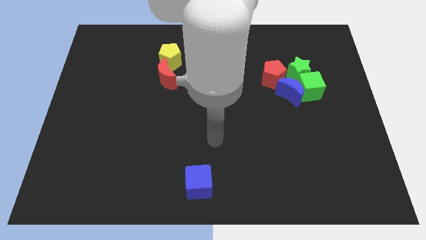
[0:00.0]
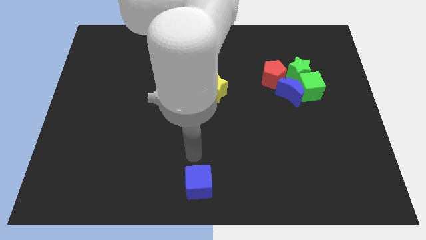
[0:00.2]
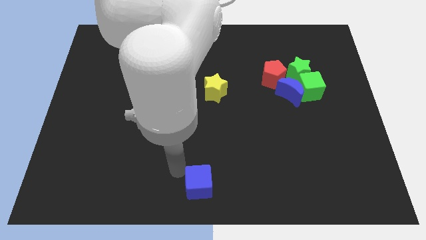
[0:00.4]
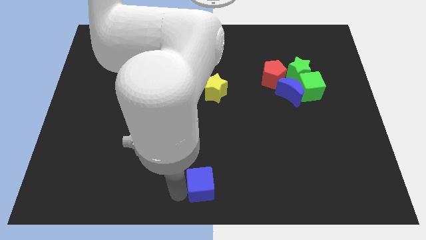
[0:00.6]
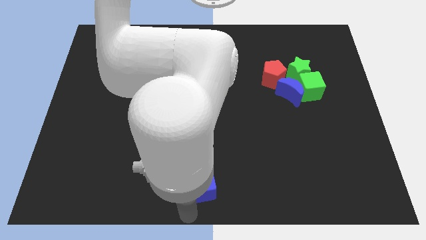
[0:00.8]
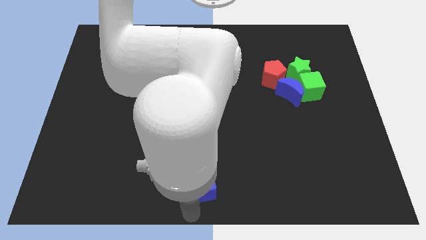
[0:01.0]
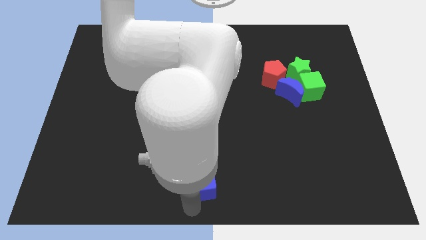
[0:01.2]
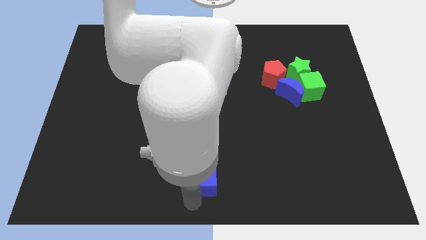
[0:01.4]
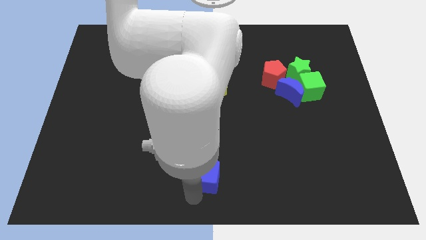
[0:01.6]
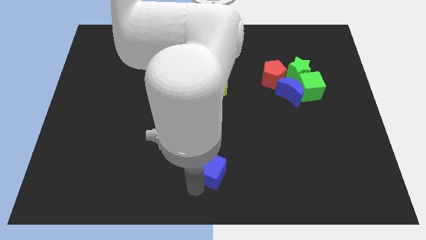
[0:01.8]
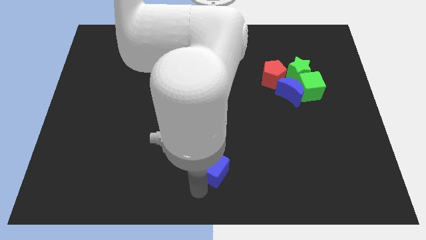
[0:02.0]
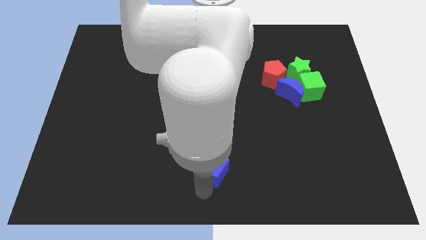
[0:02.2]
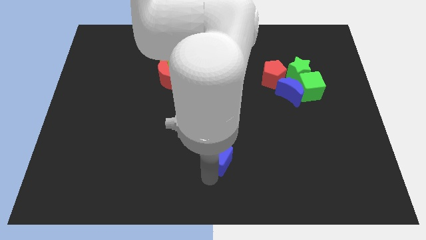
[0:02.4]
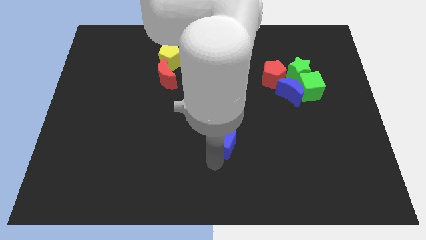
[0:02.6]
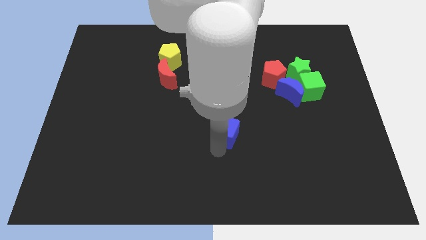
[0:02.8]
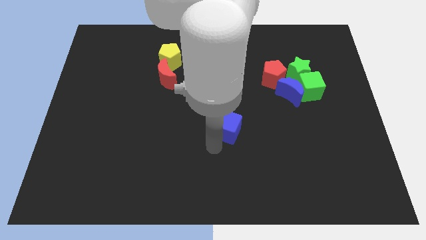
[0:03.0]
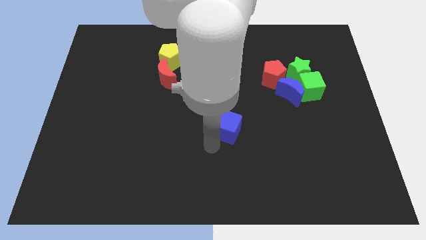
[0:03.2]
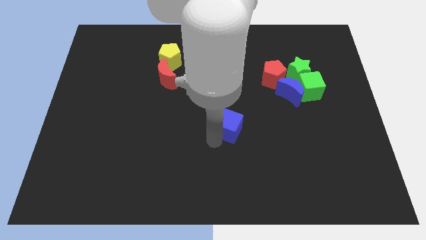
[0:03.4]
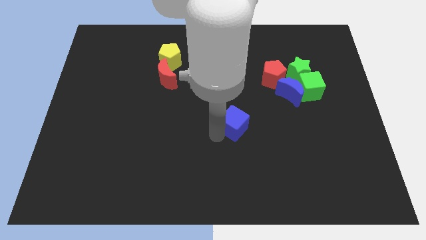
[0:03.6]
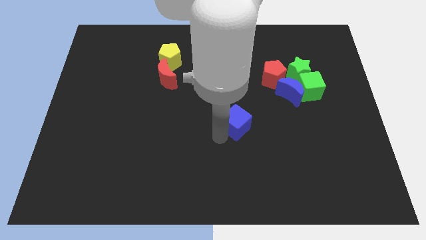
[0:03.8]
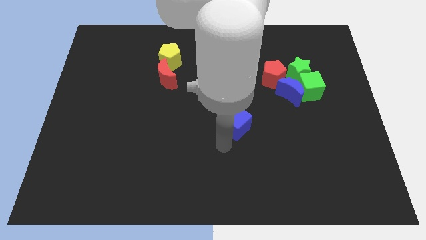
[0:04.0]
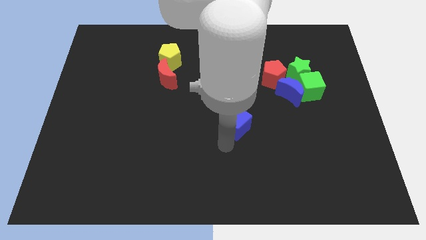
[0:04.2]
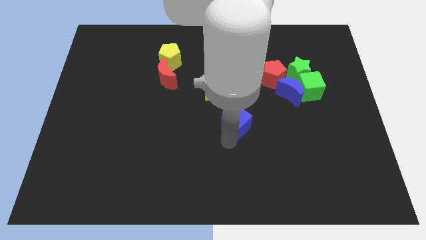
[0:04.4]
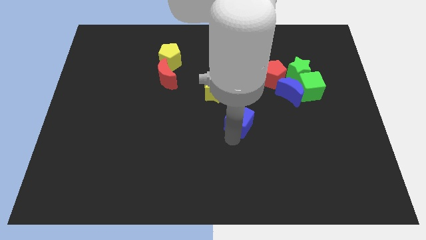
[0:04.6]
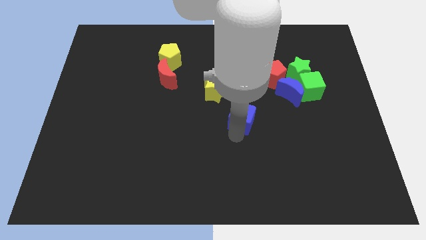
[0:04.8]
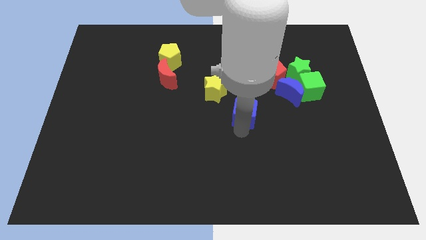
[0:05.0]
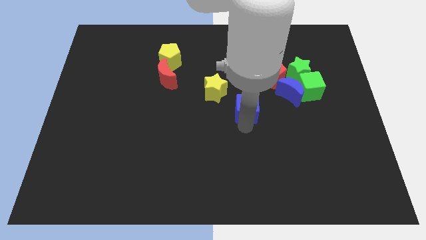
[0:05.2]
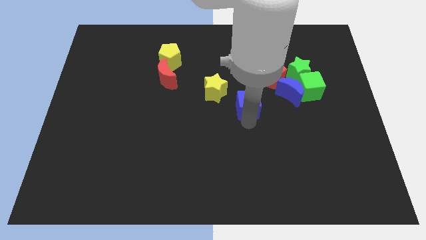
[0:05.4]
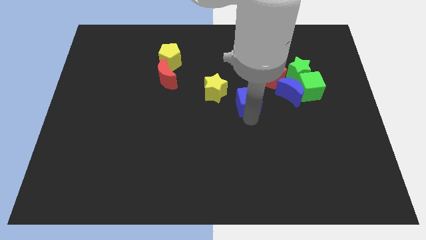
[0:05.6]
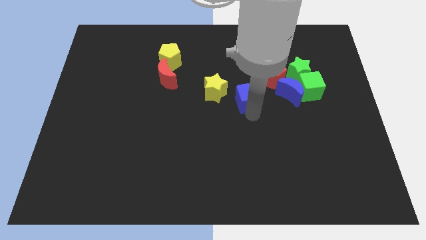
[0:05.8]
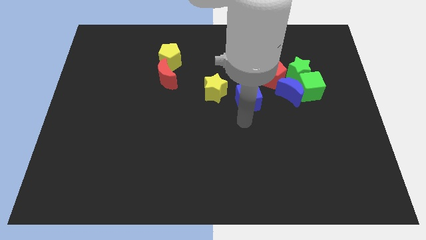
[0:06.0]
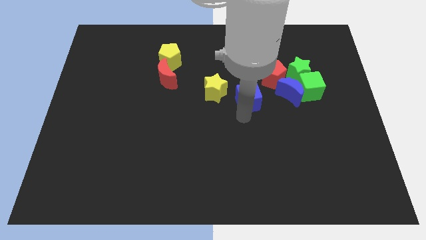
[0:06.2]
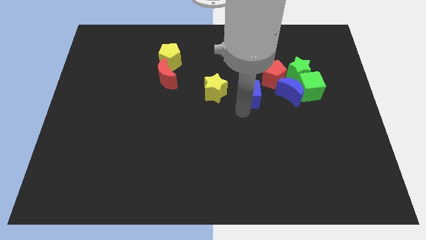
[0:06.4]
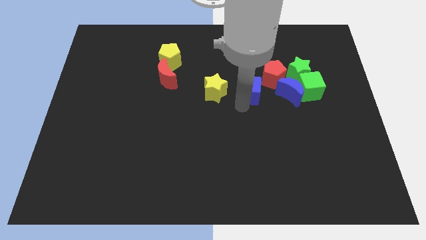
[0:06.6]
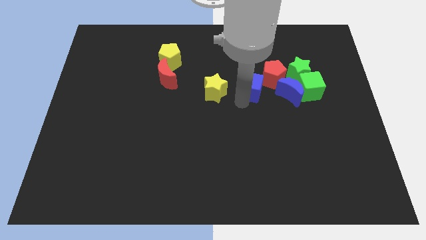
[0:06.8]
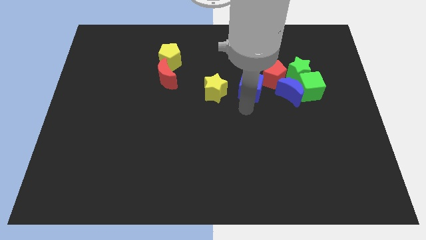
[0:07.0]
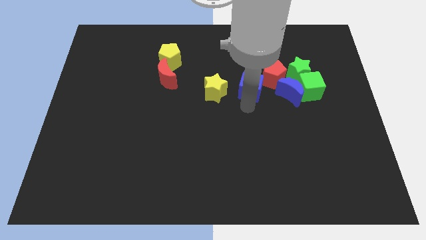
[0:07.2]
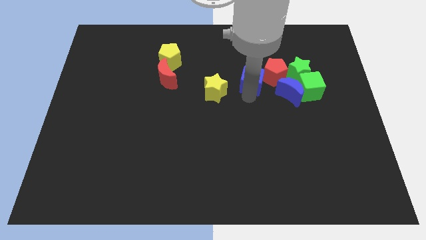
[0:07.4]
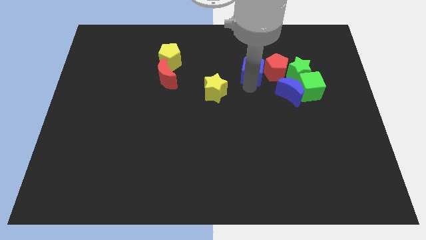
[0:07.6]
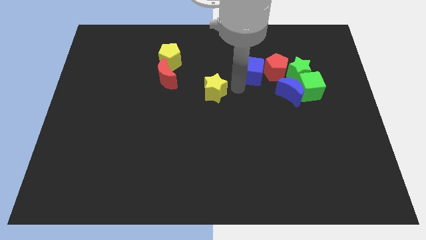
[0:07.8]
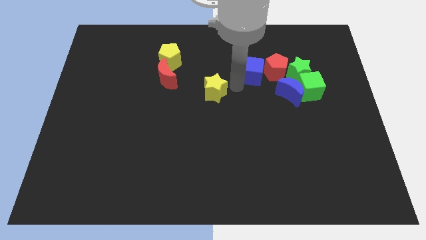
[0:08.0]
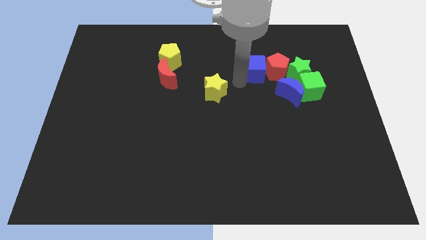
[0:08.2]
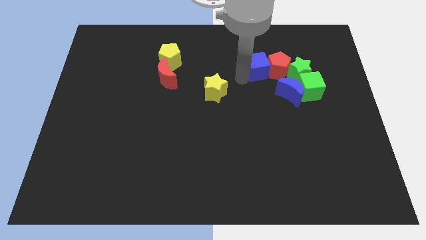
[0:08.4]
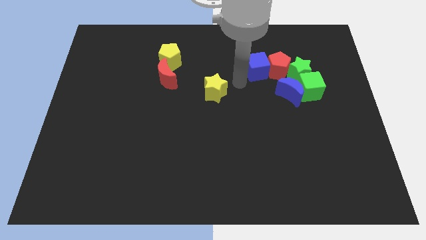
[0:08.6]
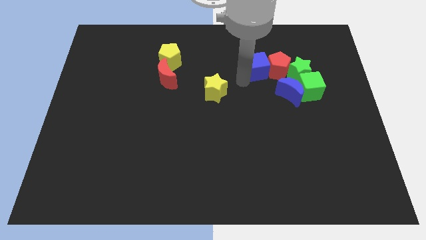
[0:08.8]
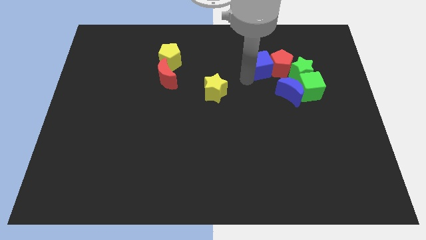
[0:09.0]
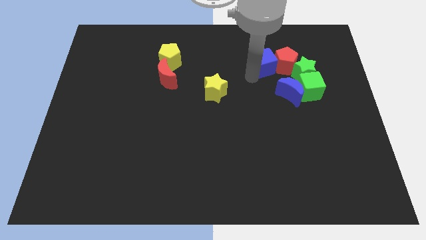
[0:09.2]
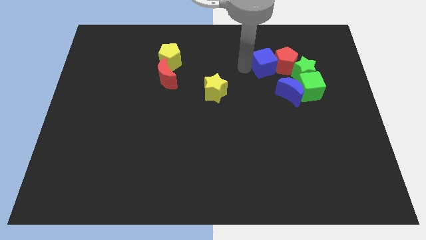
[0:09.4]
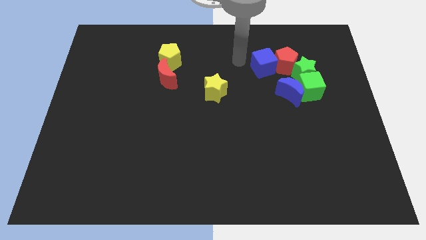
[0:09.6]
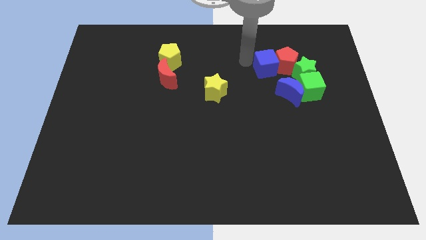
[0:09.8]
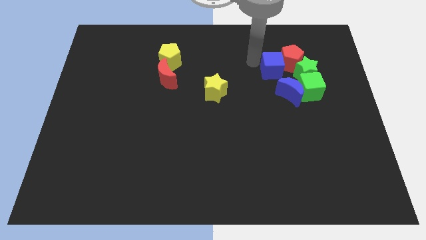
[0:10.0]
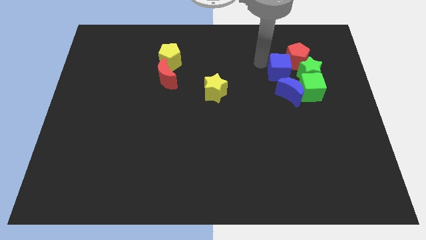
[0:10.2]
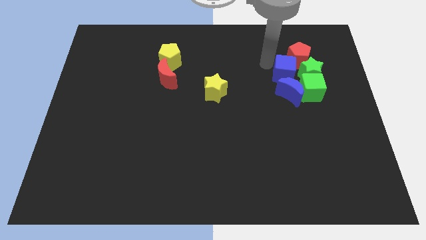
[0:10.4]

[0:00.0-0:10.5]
move the blue cube towards the green star

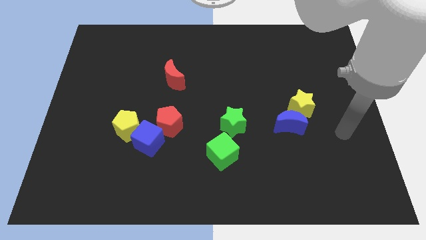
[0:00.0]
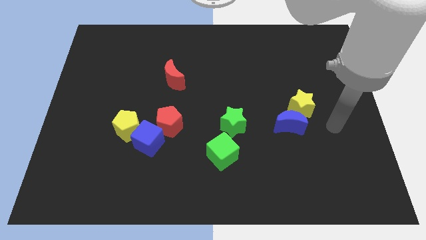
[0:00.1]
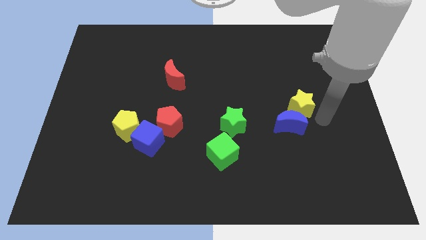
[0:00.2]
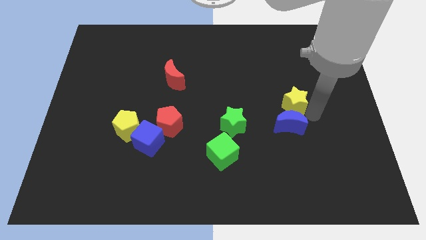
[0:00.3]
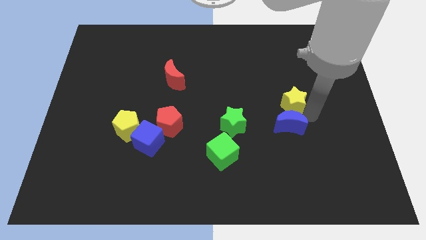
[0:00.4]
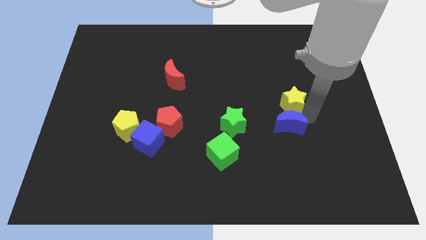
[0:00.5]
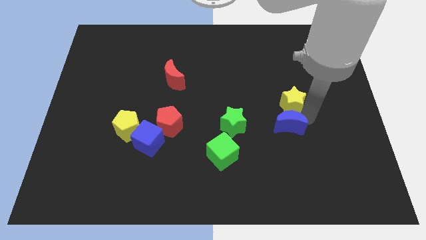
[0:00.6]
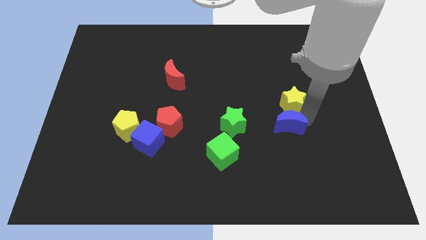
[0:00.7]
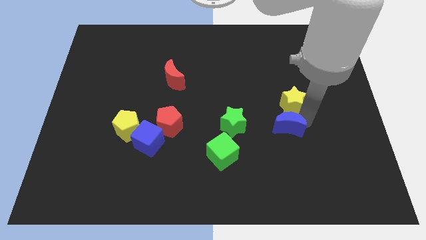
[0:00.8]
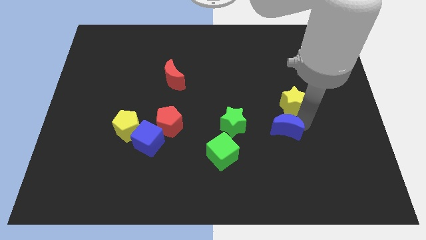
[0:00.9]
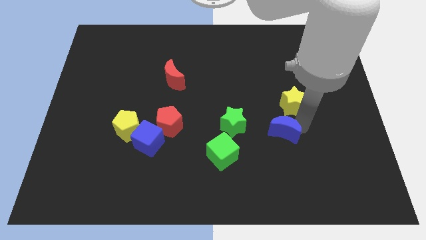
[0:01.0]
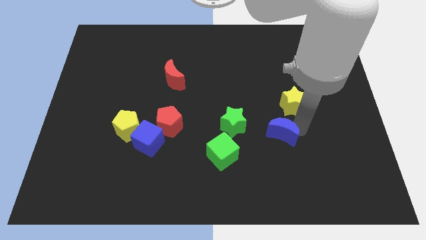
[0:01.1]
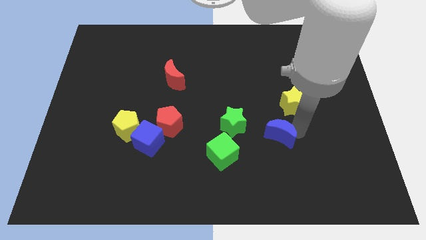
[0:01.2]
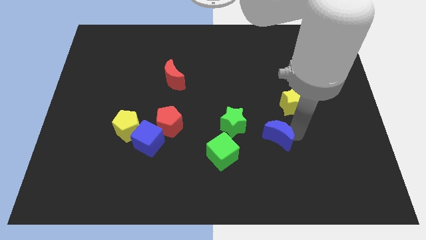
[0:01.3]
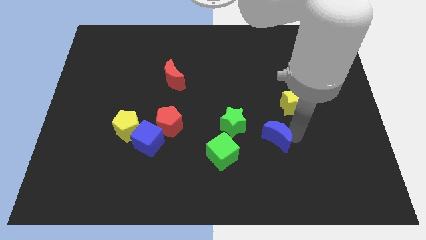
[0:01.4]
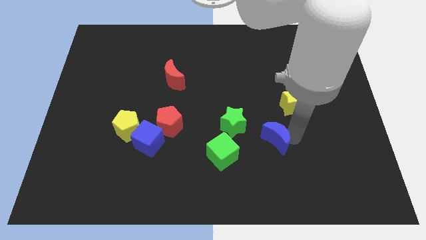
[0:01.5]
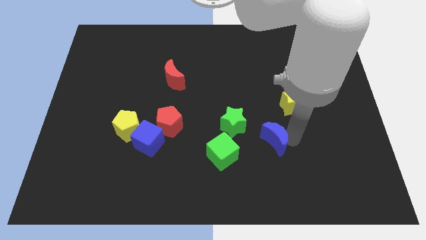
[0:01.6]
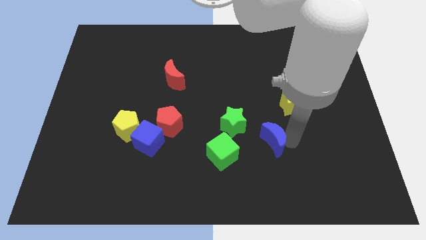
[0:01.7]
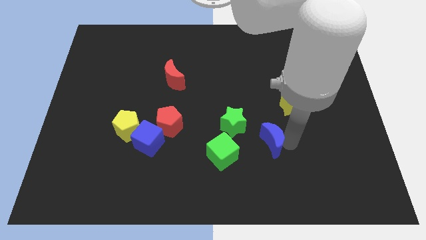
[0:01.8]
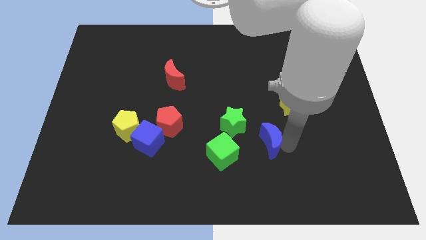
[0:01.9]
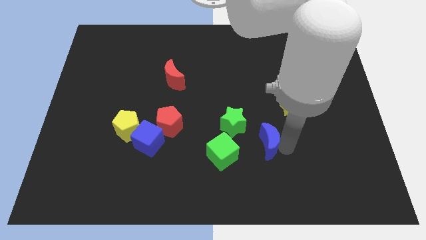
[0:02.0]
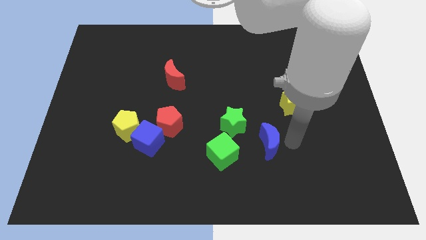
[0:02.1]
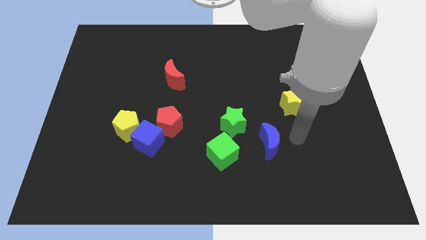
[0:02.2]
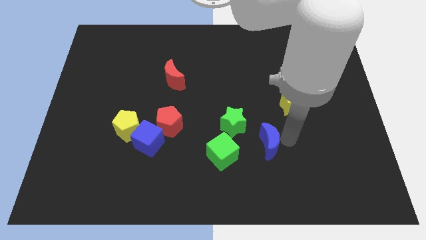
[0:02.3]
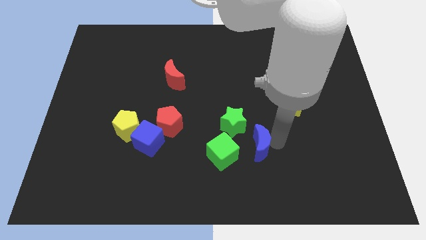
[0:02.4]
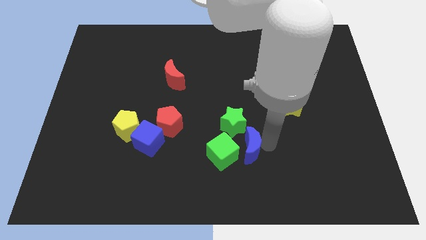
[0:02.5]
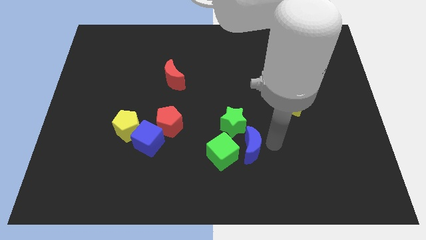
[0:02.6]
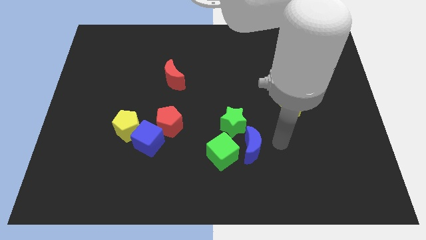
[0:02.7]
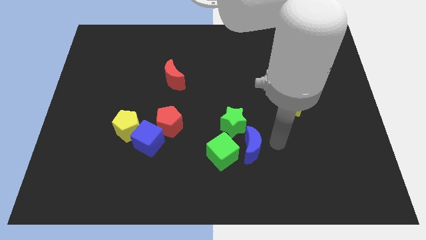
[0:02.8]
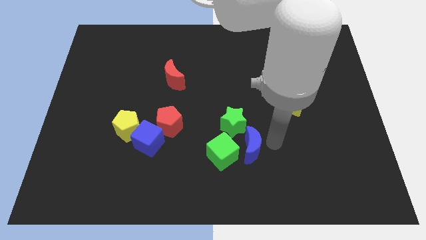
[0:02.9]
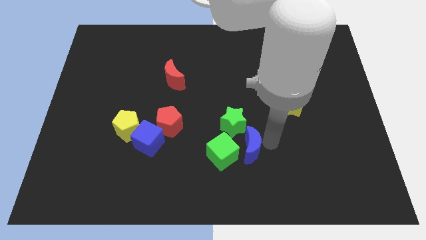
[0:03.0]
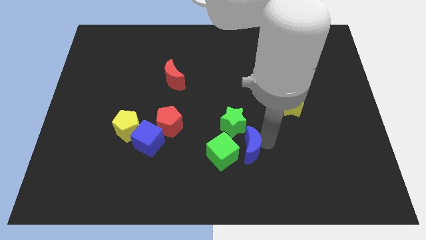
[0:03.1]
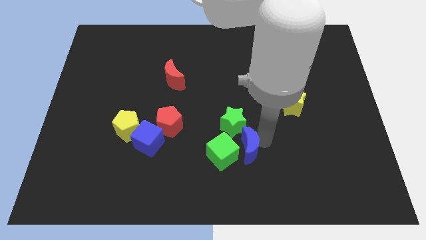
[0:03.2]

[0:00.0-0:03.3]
slide the blue moon next to the green cube
